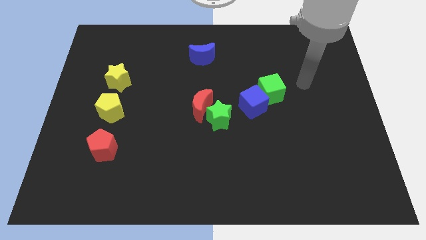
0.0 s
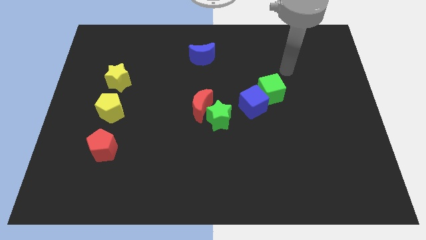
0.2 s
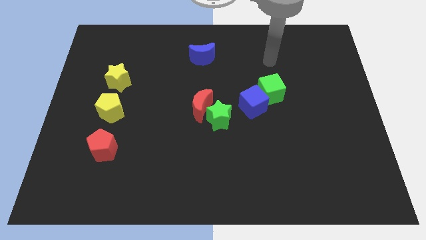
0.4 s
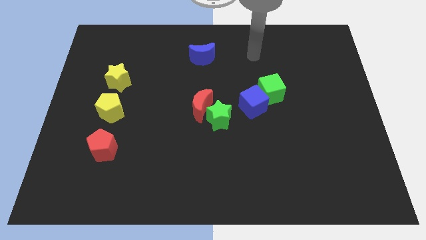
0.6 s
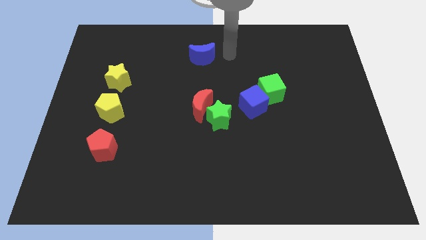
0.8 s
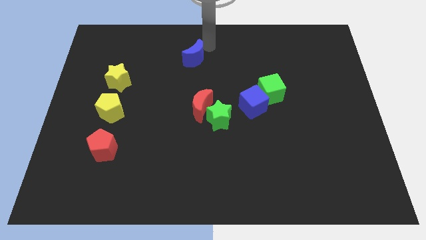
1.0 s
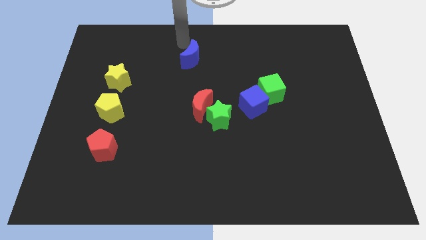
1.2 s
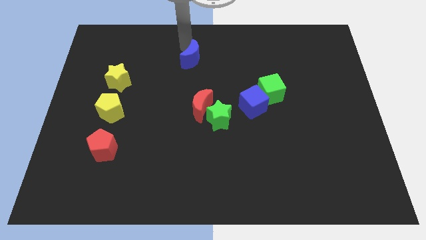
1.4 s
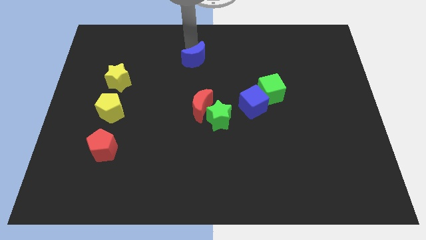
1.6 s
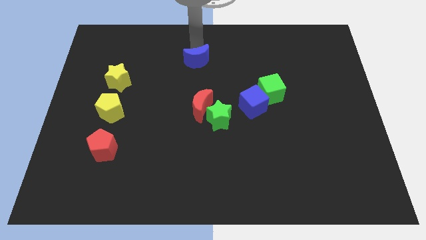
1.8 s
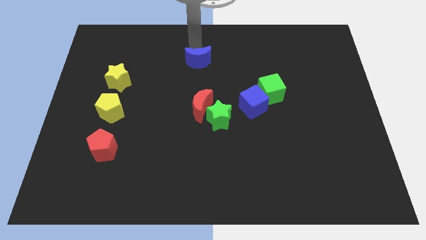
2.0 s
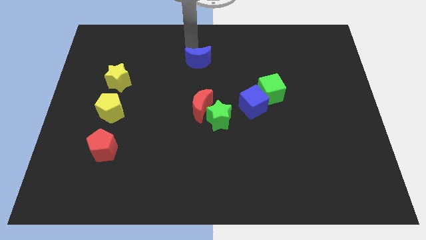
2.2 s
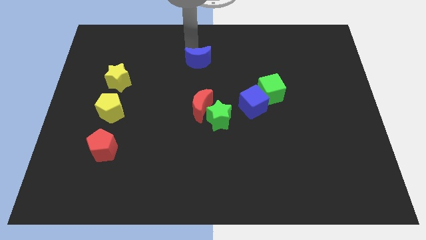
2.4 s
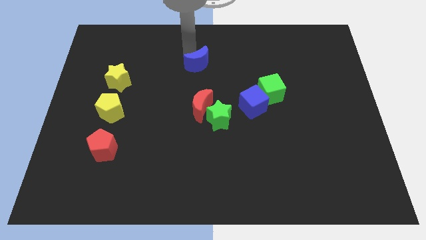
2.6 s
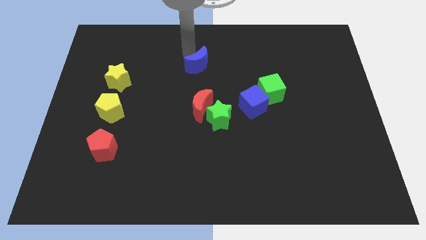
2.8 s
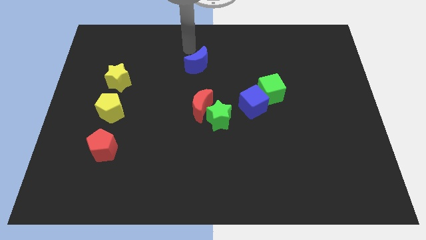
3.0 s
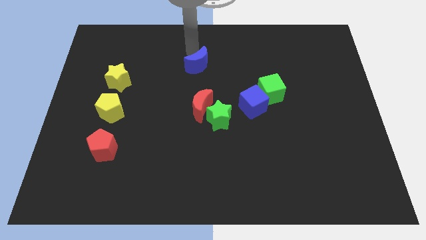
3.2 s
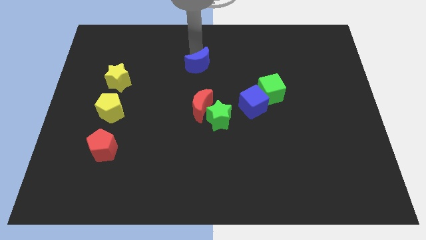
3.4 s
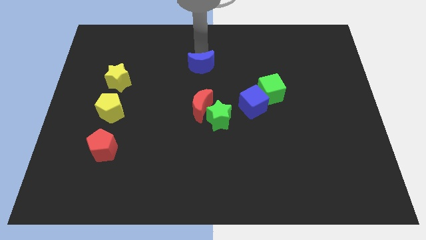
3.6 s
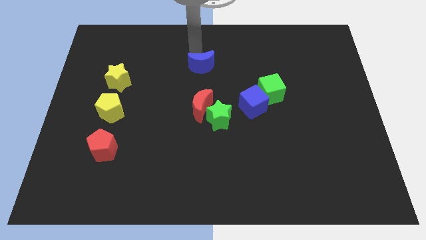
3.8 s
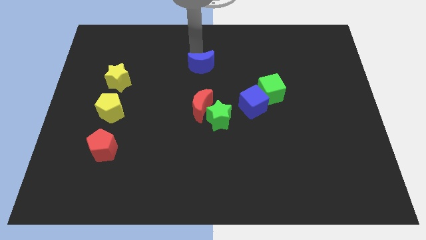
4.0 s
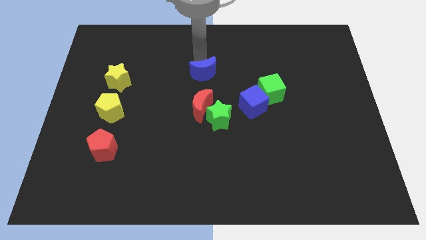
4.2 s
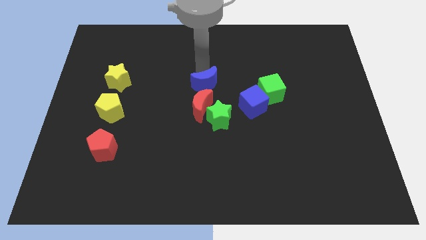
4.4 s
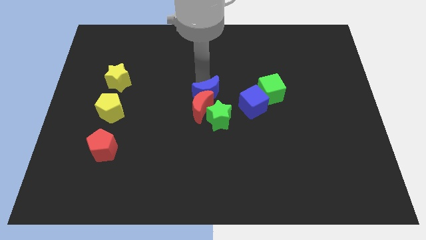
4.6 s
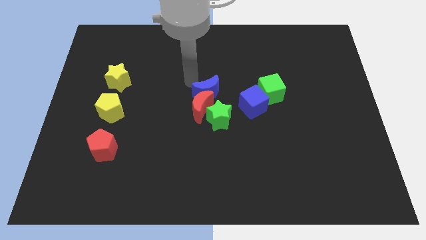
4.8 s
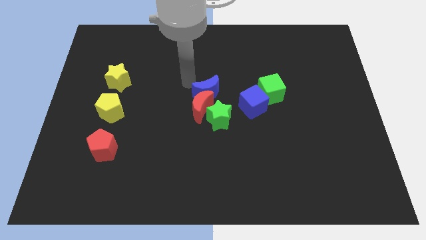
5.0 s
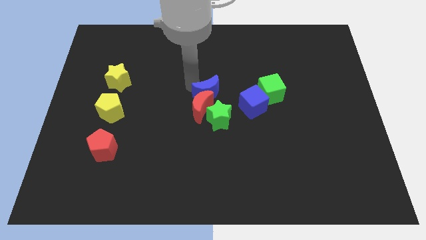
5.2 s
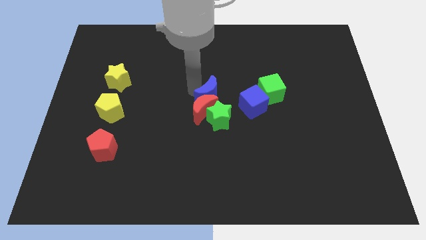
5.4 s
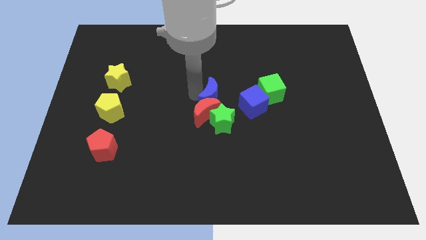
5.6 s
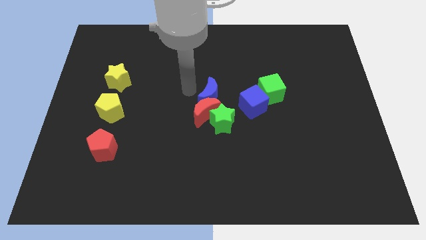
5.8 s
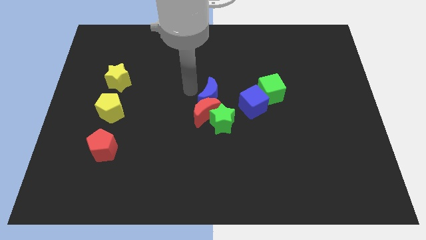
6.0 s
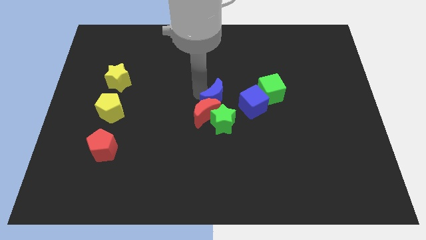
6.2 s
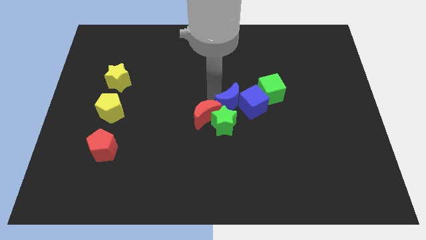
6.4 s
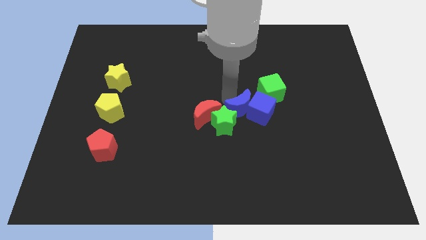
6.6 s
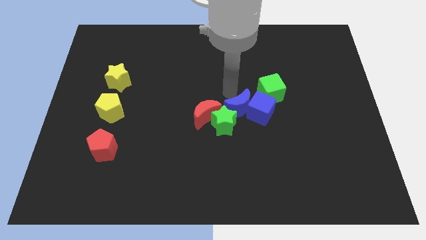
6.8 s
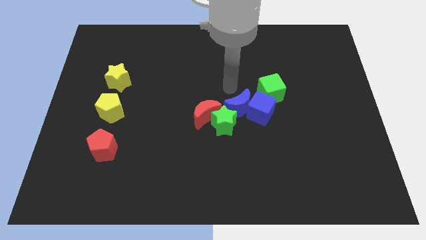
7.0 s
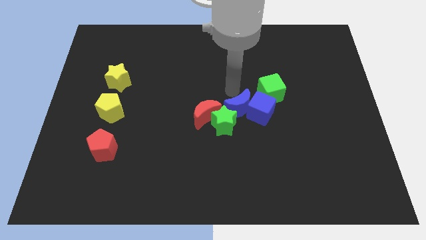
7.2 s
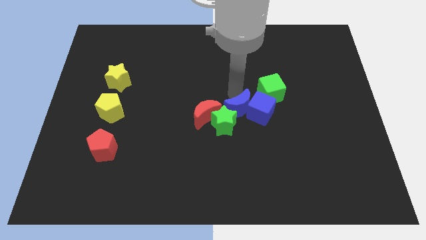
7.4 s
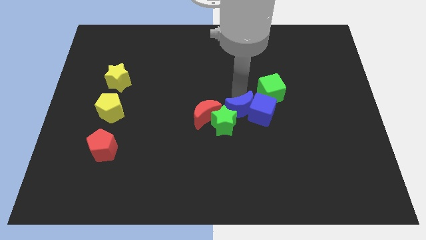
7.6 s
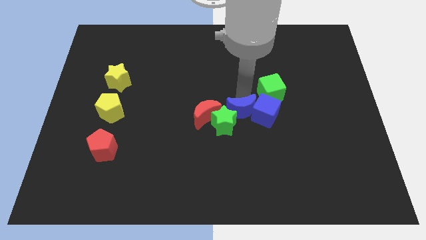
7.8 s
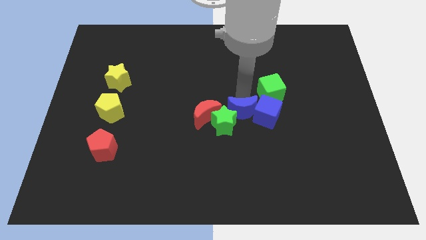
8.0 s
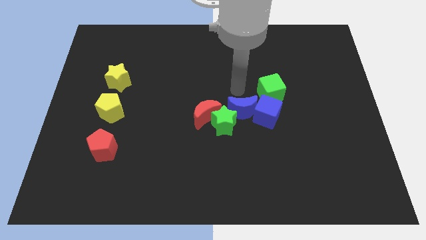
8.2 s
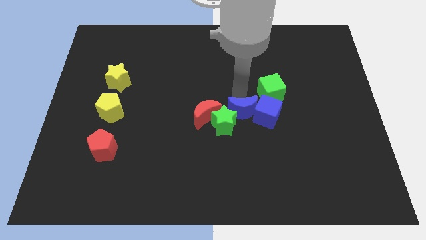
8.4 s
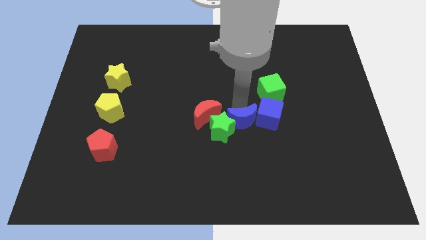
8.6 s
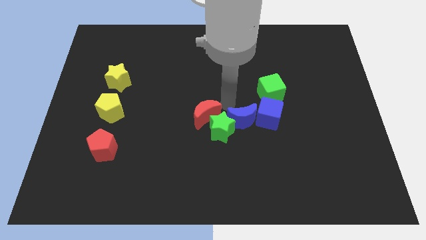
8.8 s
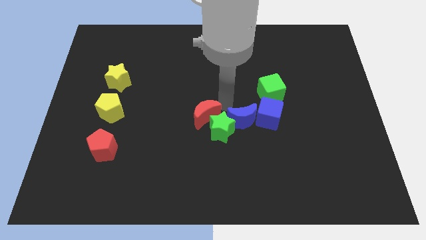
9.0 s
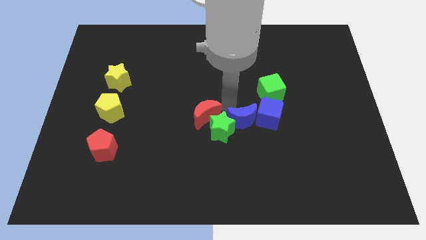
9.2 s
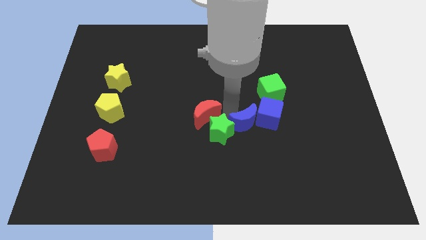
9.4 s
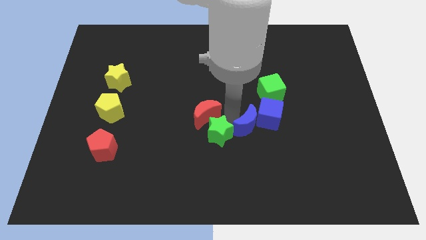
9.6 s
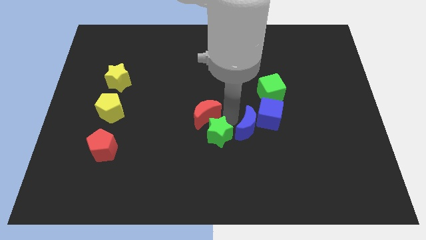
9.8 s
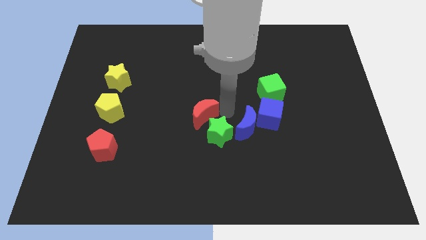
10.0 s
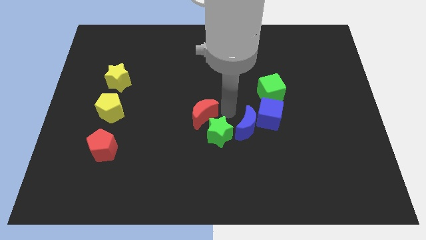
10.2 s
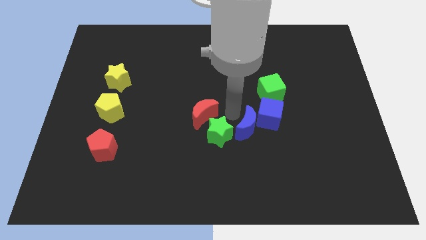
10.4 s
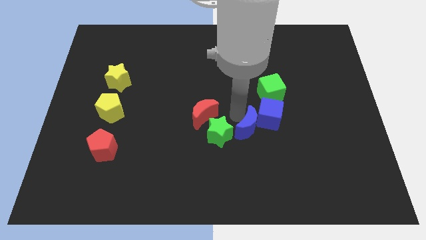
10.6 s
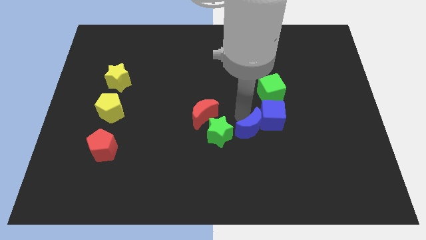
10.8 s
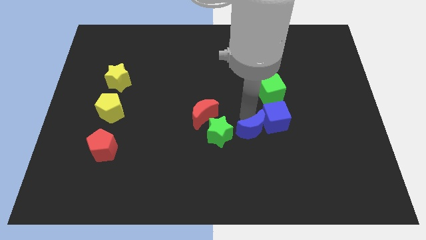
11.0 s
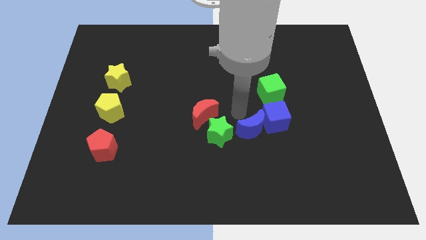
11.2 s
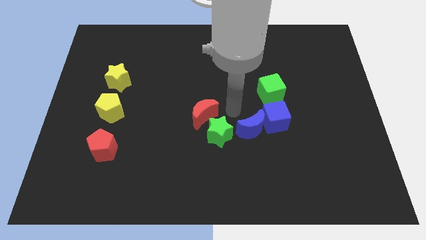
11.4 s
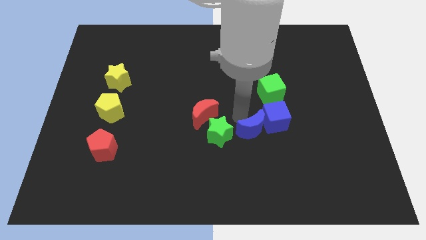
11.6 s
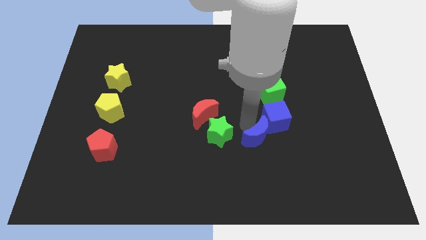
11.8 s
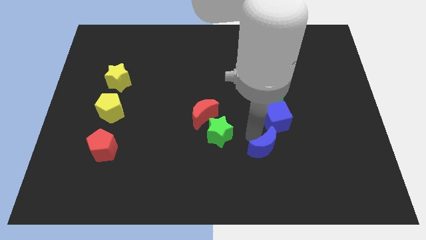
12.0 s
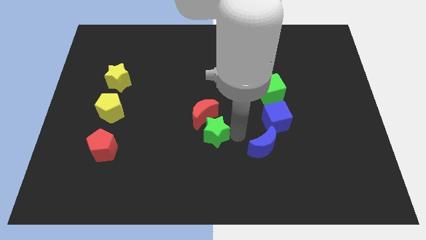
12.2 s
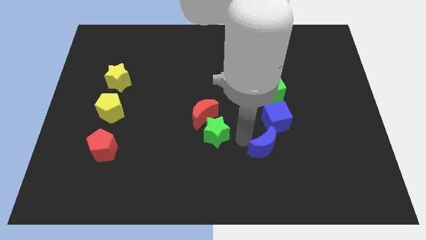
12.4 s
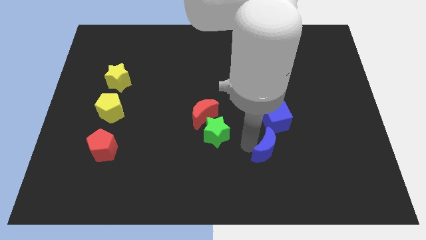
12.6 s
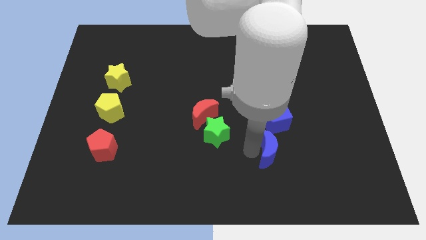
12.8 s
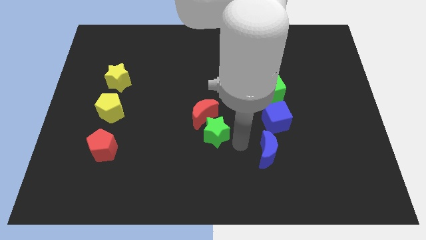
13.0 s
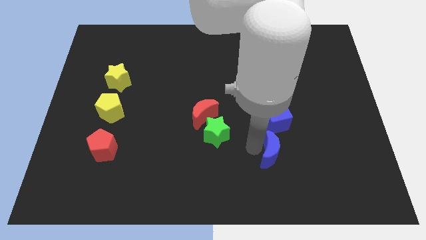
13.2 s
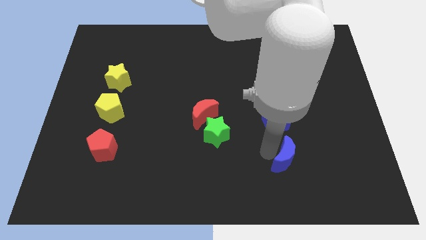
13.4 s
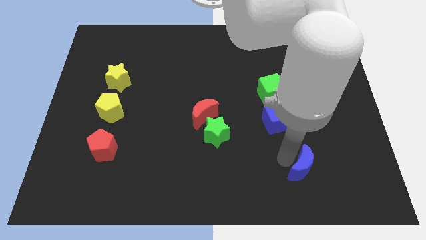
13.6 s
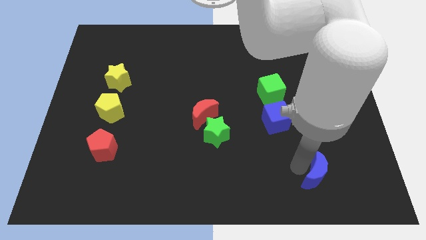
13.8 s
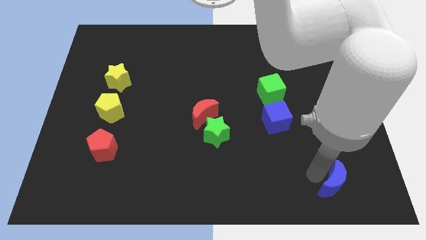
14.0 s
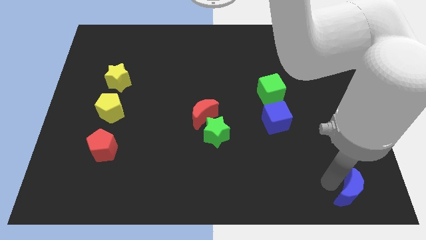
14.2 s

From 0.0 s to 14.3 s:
move the blue moon to the bottom right
